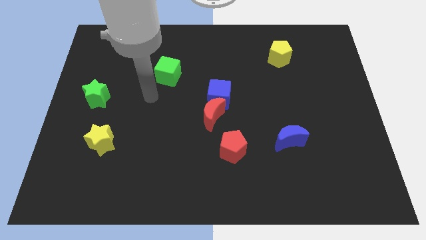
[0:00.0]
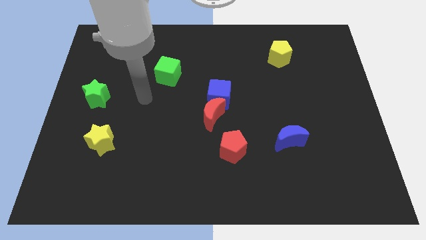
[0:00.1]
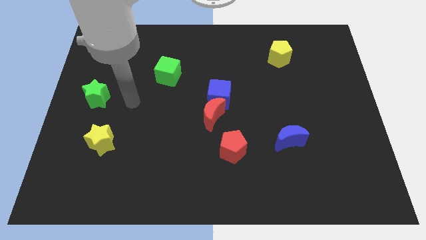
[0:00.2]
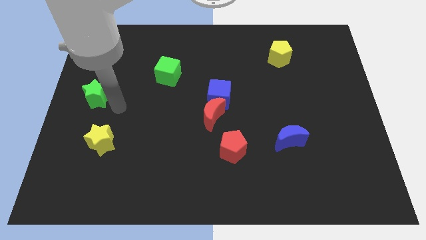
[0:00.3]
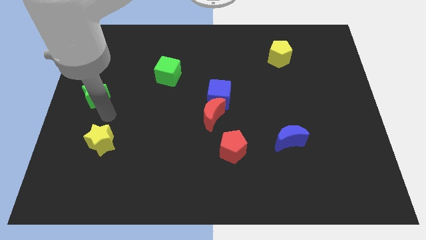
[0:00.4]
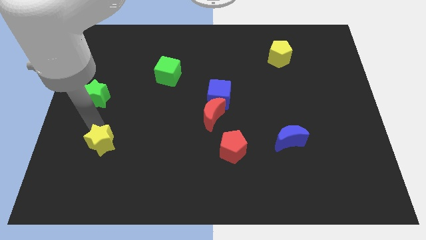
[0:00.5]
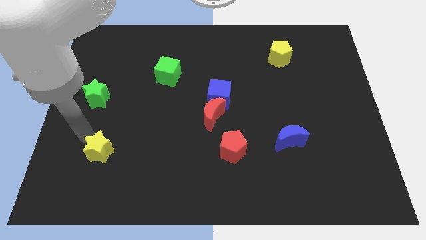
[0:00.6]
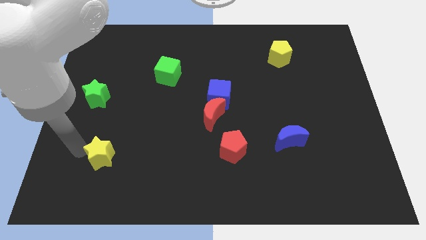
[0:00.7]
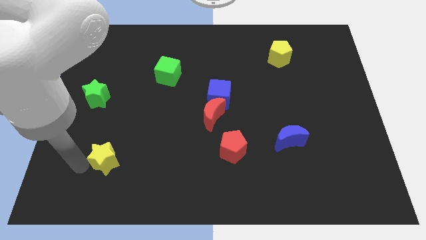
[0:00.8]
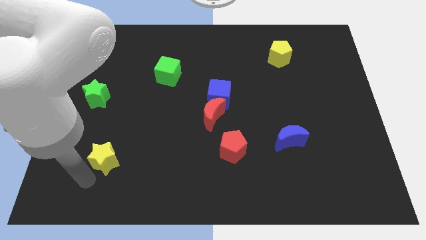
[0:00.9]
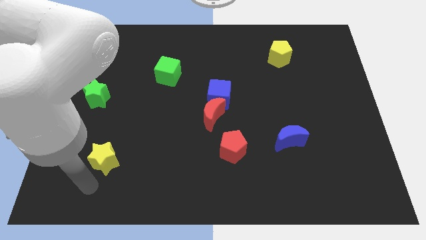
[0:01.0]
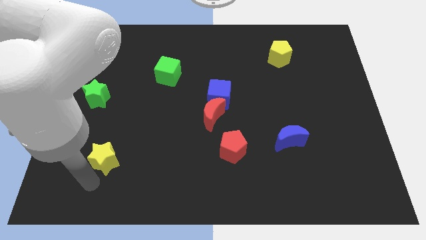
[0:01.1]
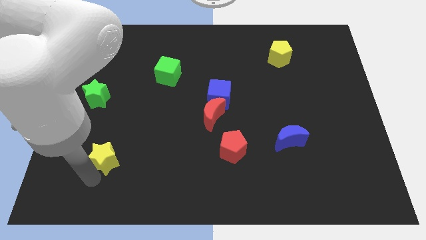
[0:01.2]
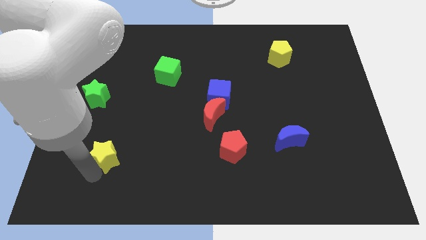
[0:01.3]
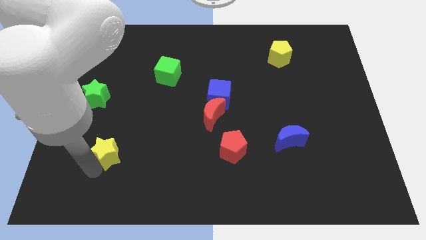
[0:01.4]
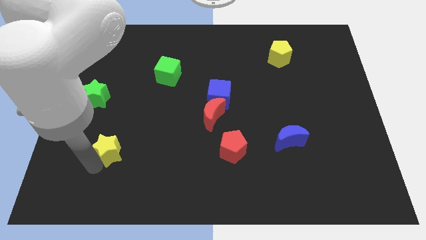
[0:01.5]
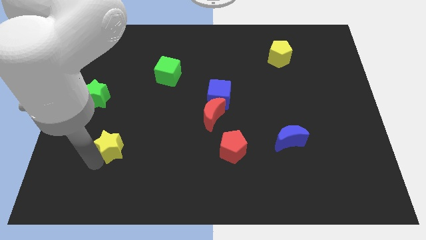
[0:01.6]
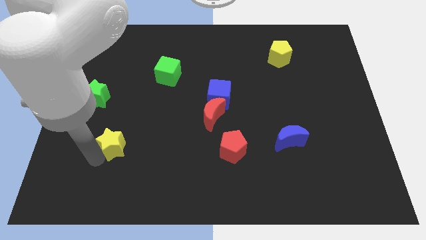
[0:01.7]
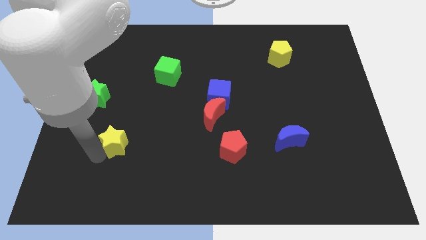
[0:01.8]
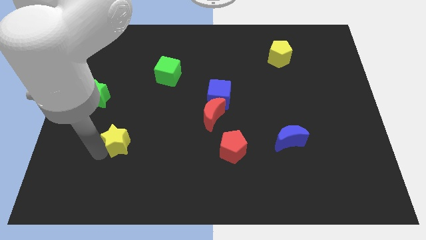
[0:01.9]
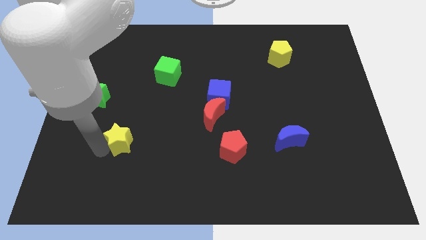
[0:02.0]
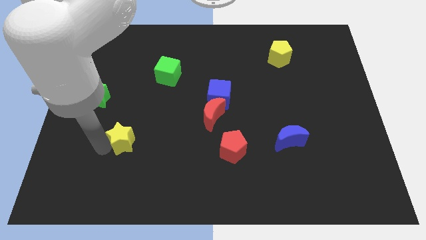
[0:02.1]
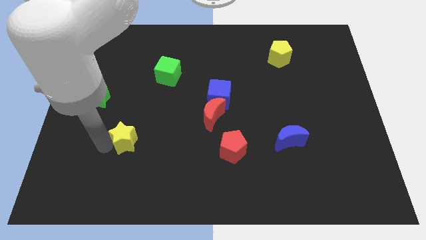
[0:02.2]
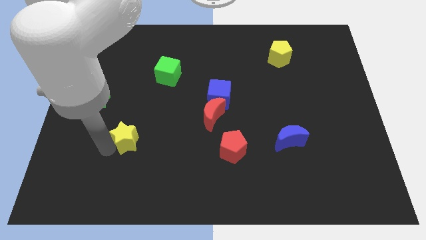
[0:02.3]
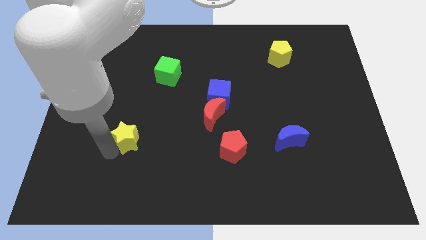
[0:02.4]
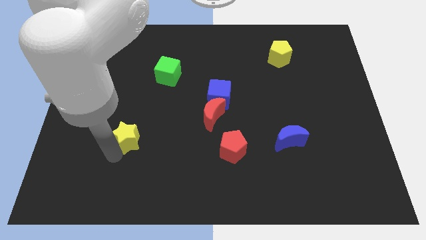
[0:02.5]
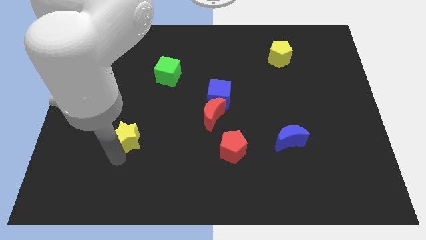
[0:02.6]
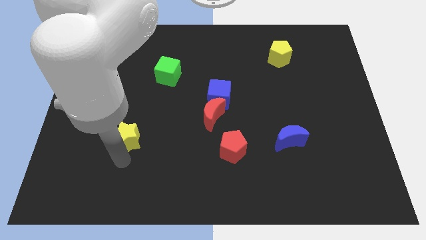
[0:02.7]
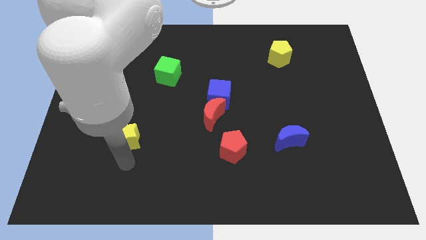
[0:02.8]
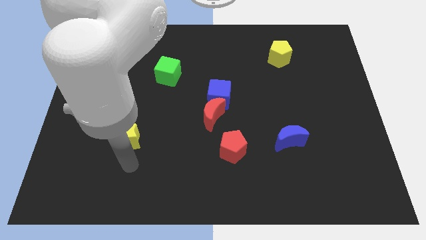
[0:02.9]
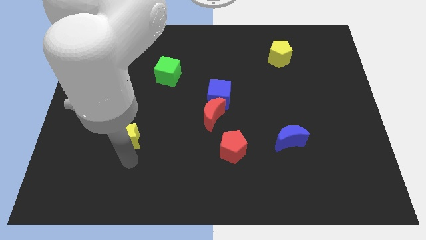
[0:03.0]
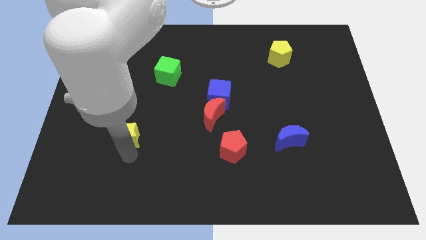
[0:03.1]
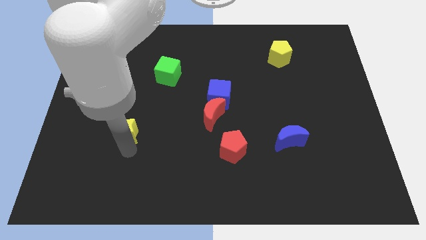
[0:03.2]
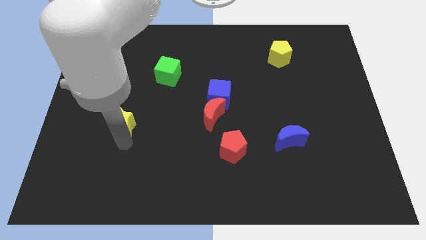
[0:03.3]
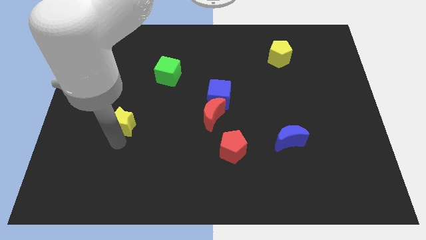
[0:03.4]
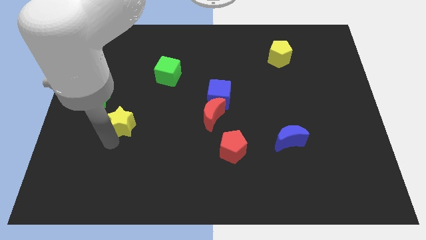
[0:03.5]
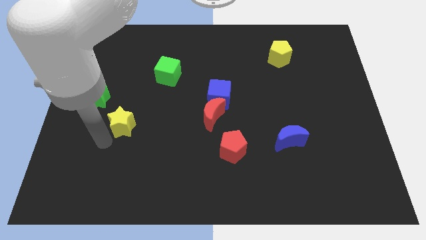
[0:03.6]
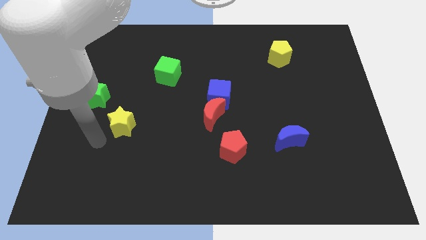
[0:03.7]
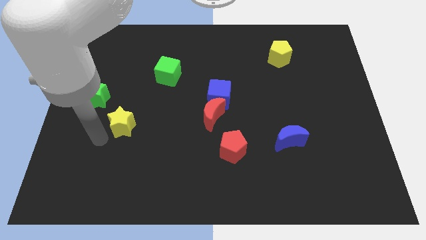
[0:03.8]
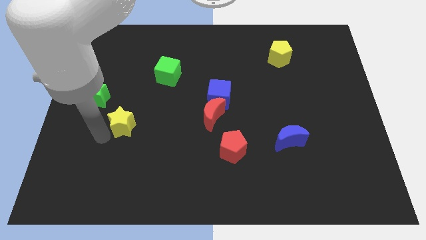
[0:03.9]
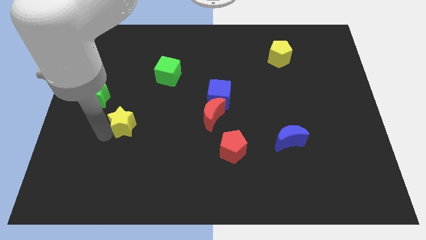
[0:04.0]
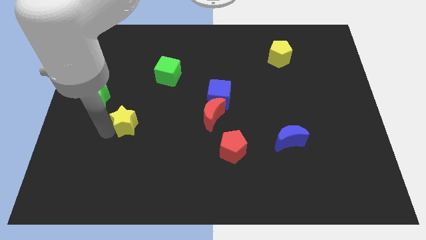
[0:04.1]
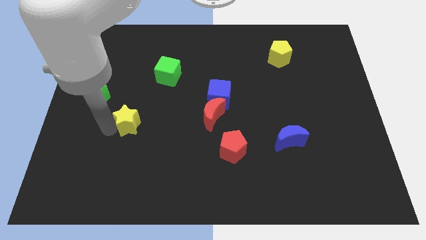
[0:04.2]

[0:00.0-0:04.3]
move the yellow star upwards and right a little

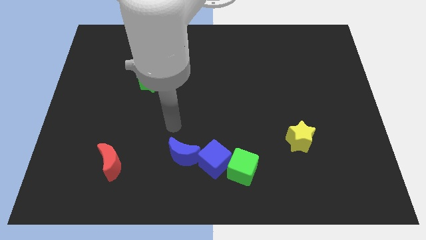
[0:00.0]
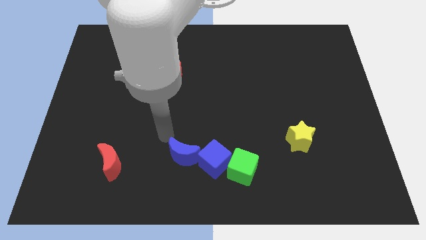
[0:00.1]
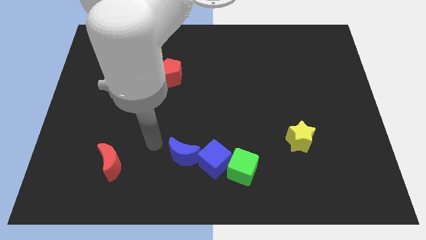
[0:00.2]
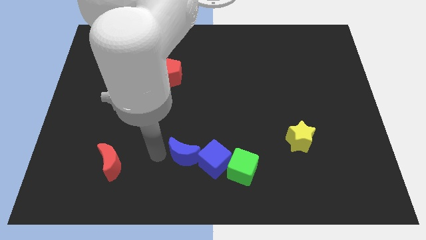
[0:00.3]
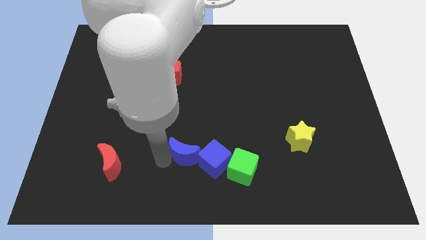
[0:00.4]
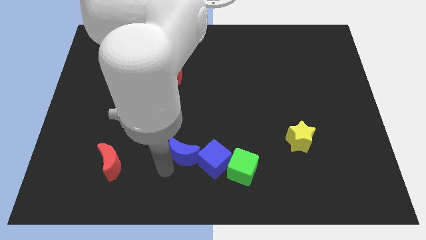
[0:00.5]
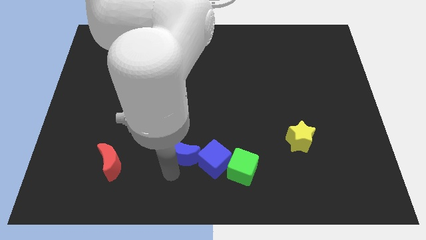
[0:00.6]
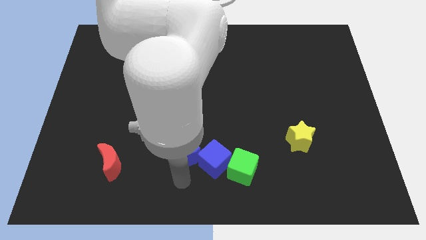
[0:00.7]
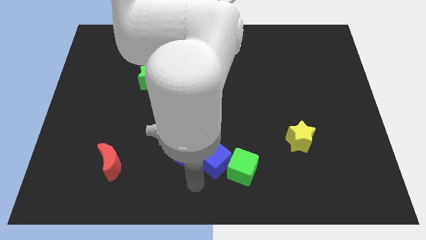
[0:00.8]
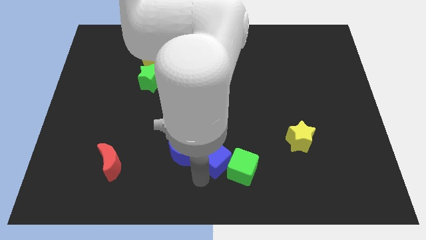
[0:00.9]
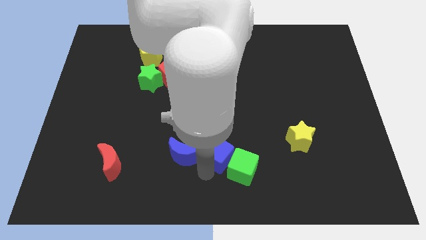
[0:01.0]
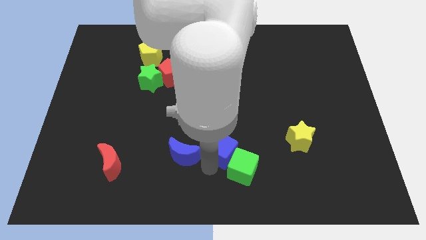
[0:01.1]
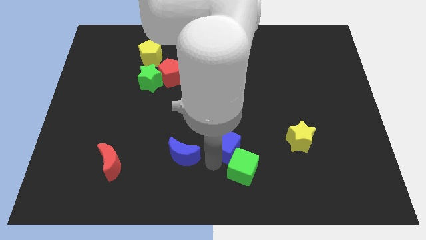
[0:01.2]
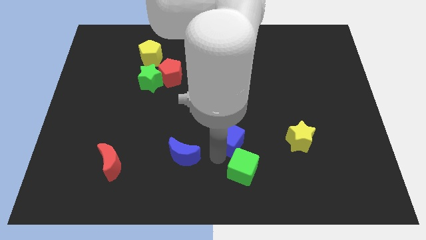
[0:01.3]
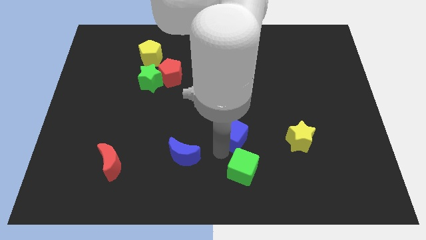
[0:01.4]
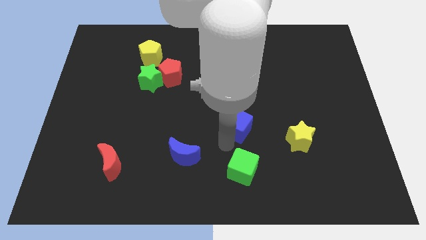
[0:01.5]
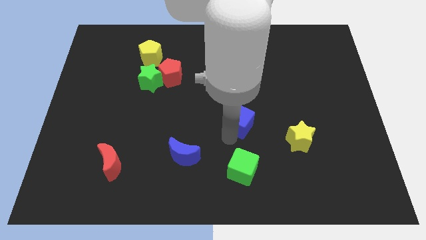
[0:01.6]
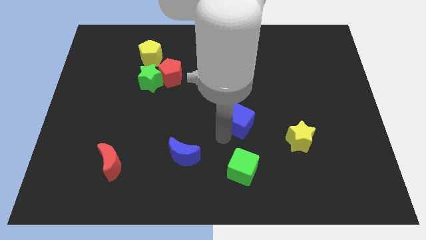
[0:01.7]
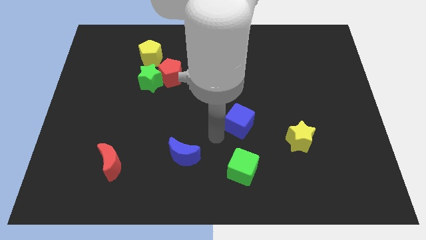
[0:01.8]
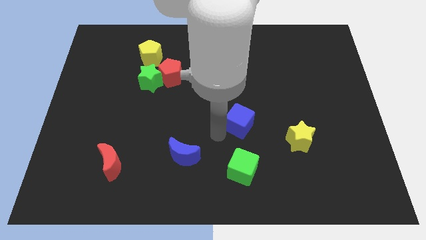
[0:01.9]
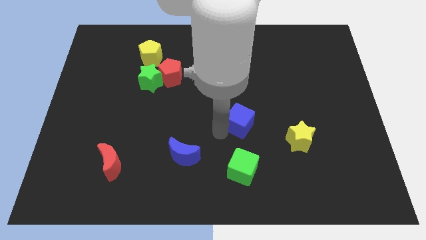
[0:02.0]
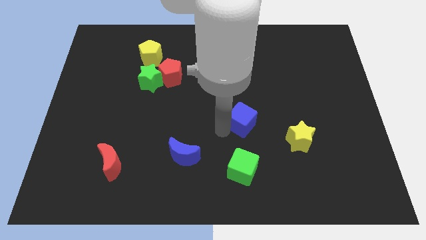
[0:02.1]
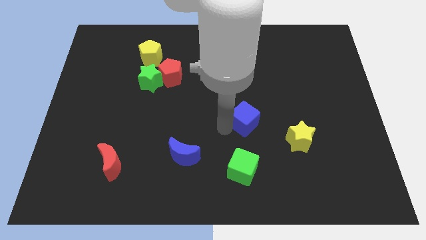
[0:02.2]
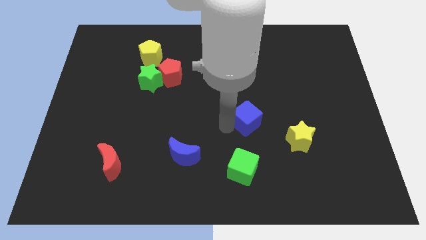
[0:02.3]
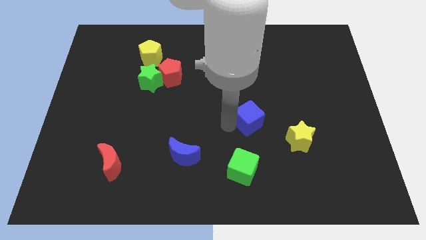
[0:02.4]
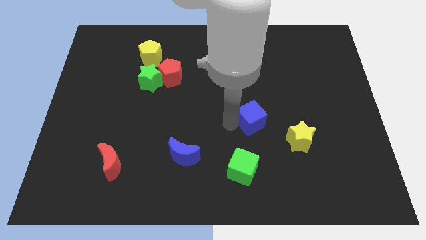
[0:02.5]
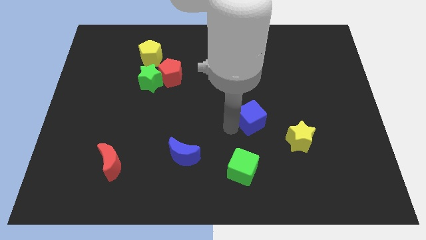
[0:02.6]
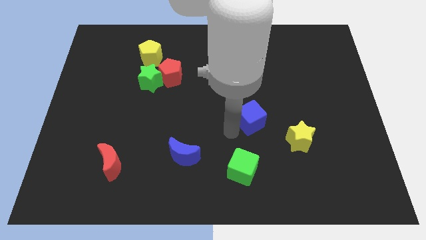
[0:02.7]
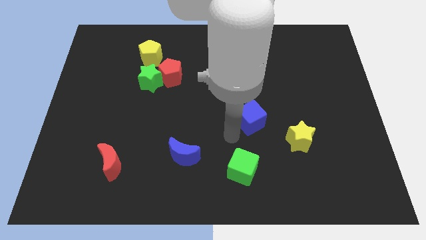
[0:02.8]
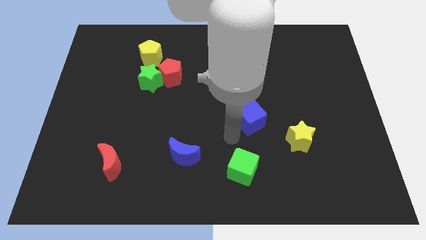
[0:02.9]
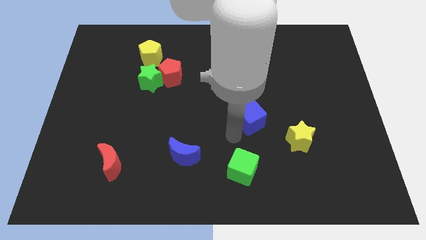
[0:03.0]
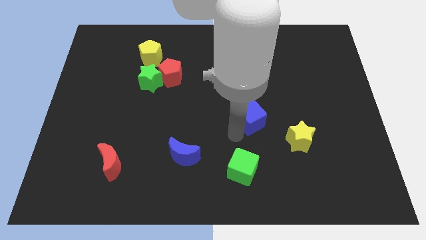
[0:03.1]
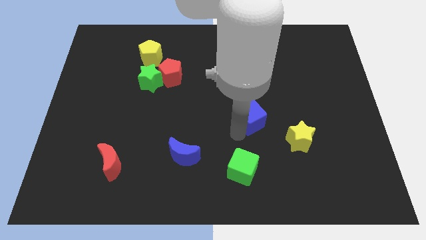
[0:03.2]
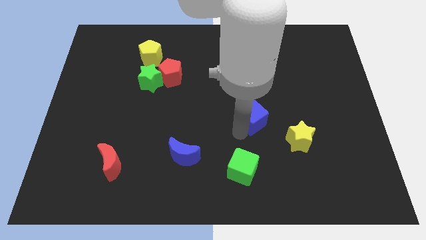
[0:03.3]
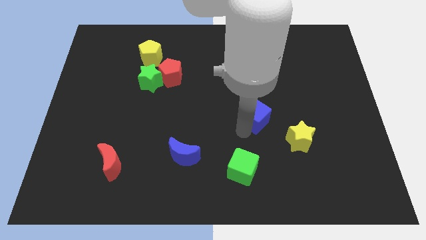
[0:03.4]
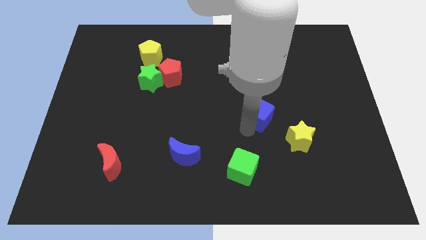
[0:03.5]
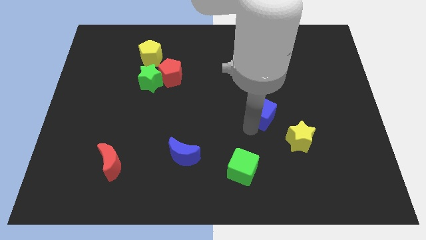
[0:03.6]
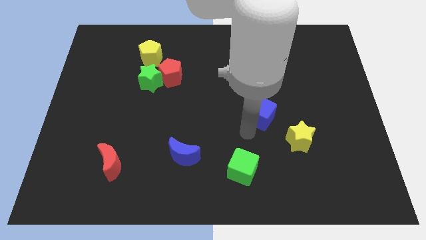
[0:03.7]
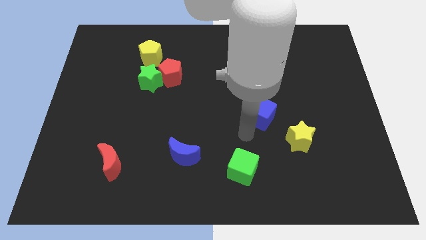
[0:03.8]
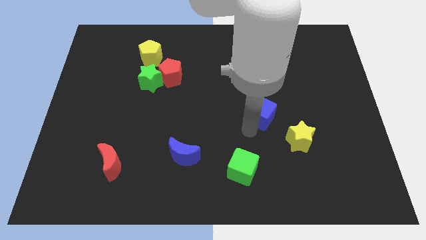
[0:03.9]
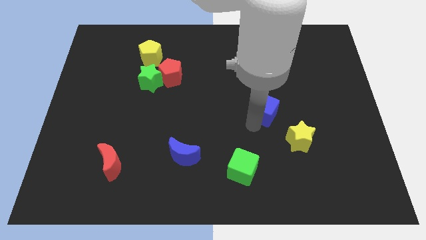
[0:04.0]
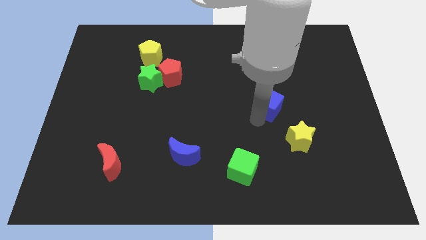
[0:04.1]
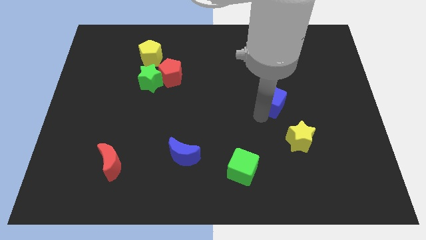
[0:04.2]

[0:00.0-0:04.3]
move the blue cube up and right

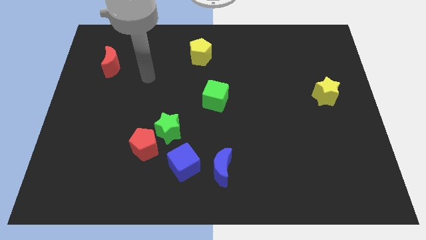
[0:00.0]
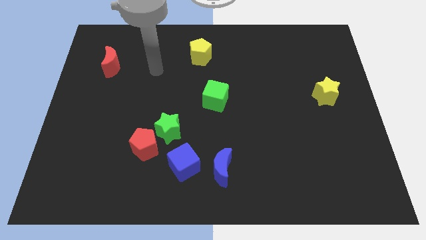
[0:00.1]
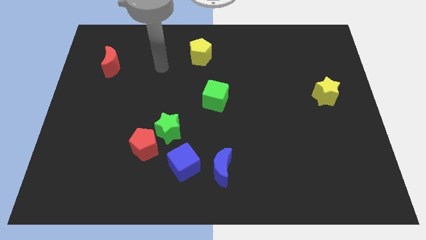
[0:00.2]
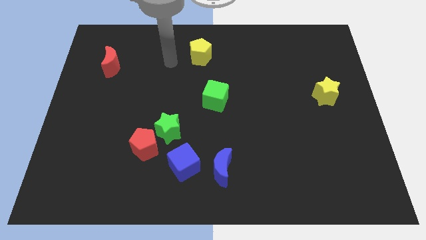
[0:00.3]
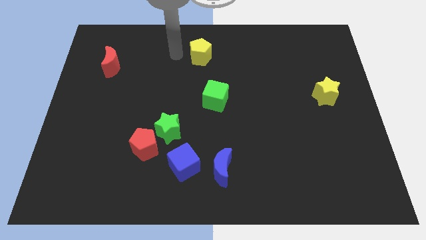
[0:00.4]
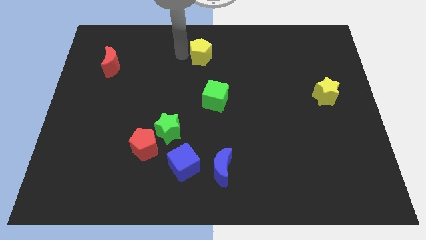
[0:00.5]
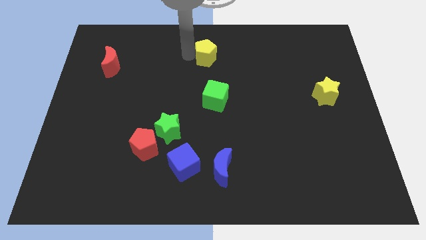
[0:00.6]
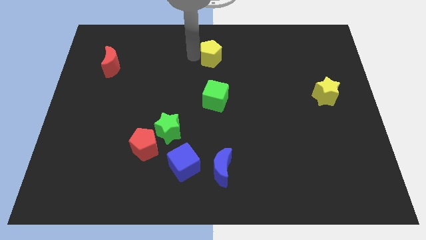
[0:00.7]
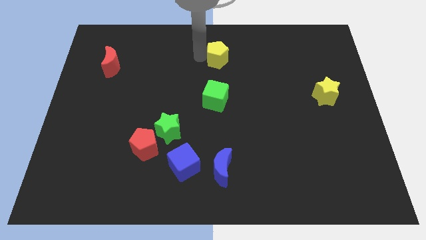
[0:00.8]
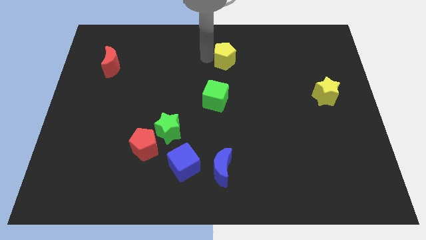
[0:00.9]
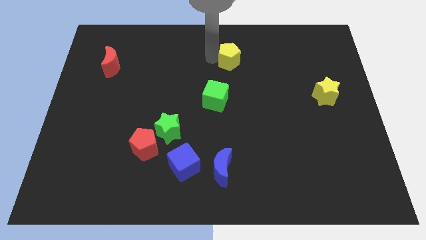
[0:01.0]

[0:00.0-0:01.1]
slightly move the yellow pentagon to the right
